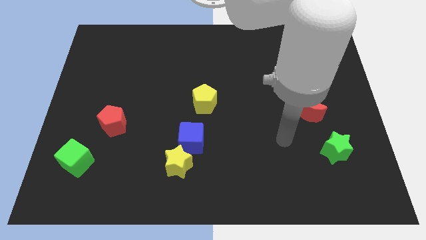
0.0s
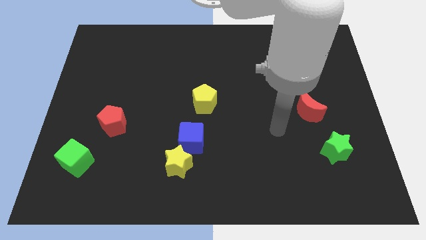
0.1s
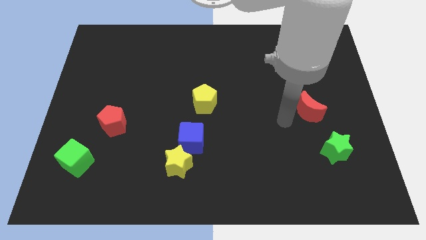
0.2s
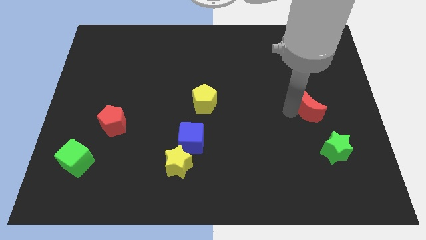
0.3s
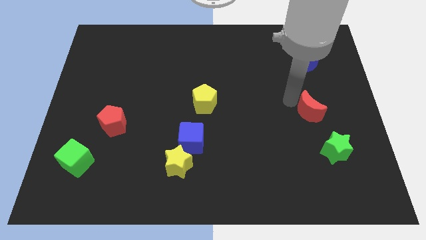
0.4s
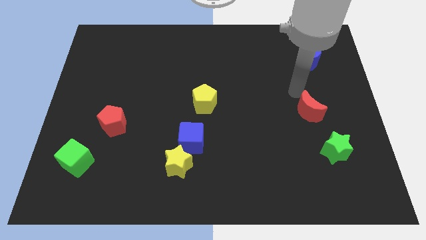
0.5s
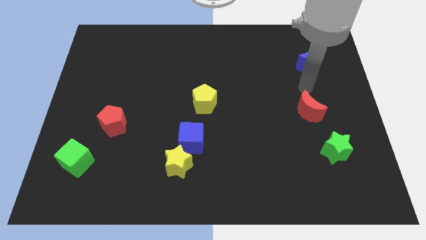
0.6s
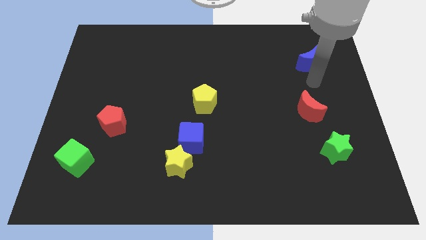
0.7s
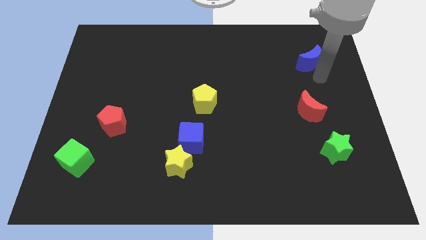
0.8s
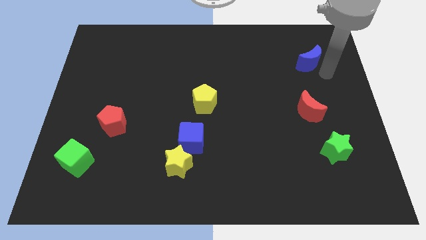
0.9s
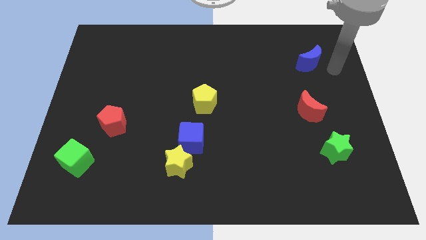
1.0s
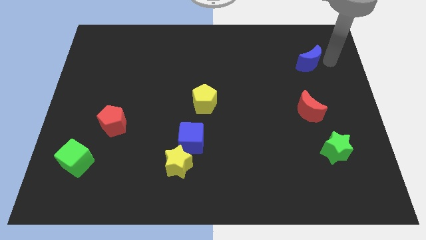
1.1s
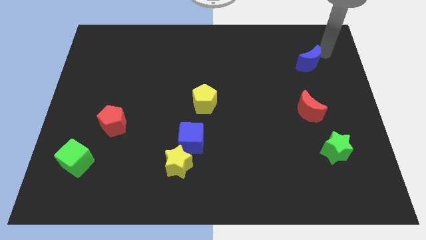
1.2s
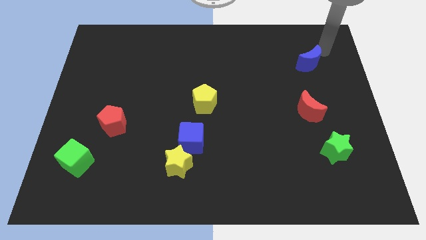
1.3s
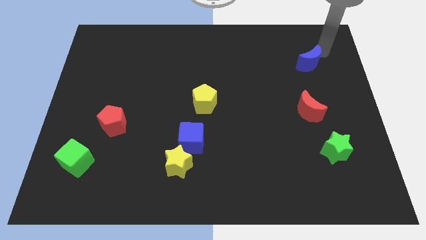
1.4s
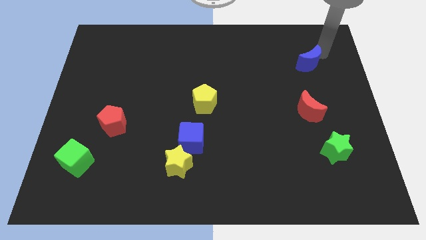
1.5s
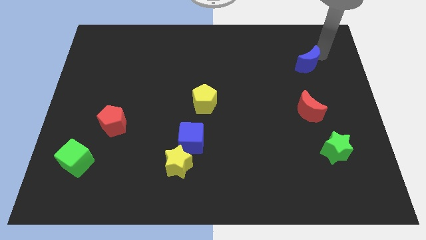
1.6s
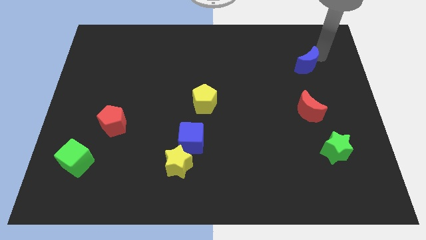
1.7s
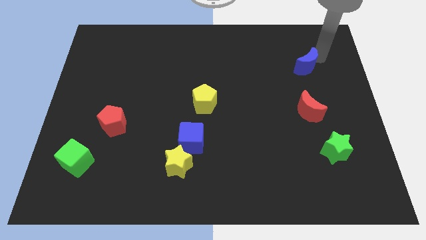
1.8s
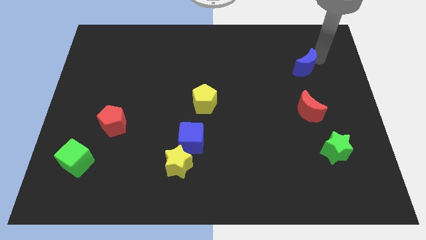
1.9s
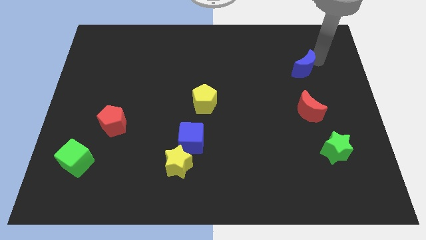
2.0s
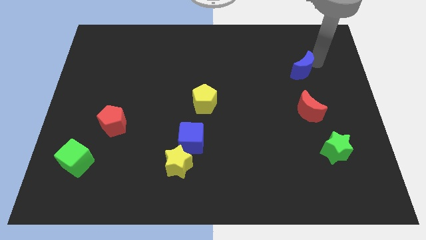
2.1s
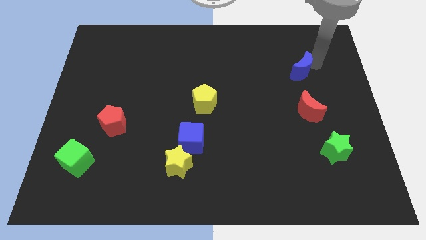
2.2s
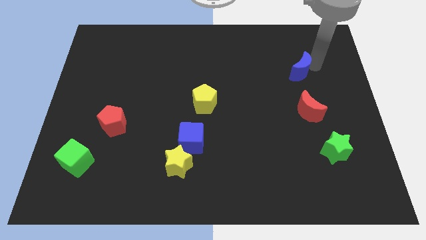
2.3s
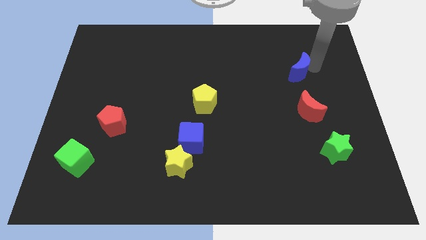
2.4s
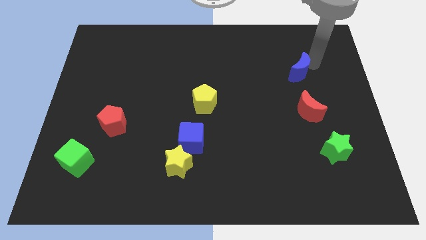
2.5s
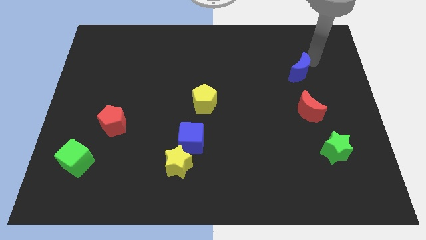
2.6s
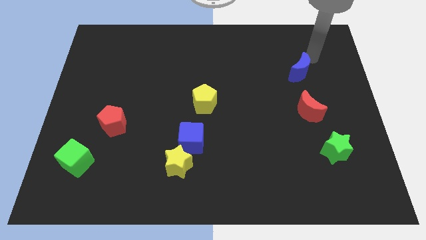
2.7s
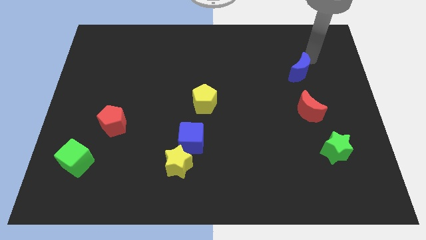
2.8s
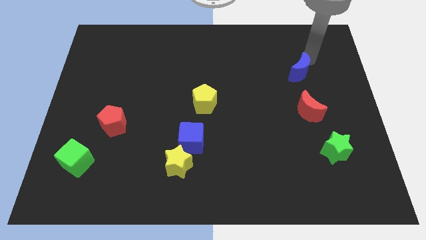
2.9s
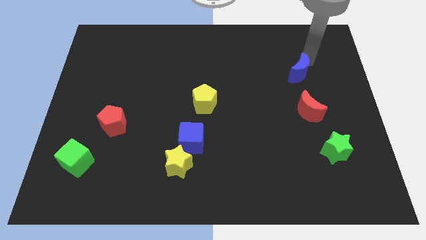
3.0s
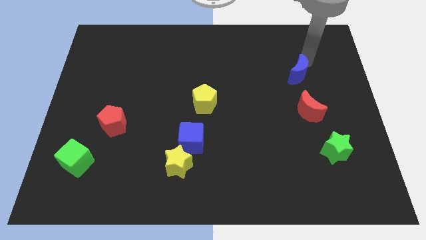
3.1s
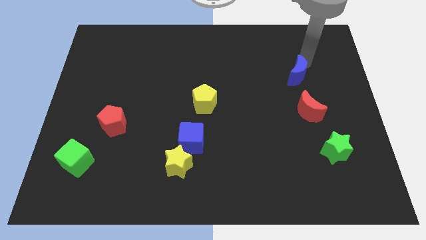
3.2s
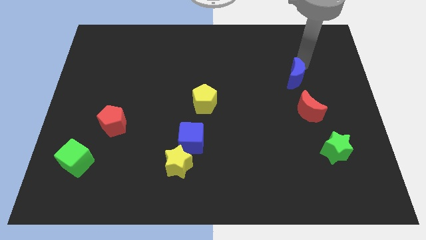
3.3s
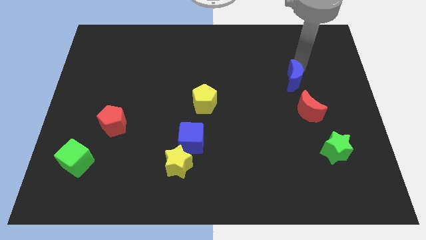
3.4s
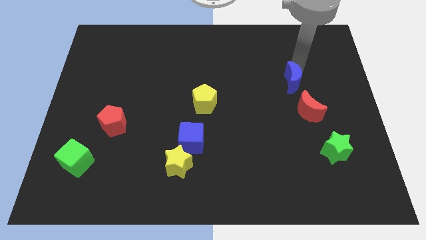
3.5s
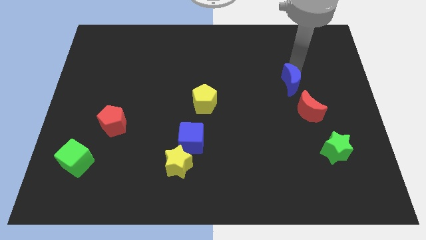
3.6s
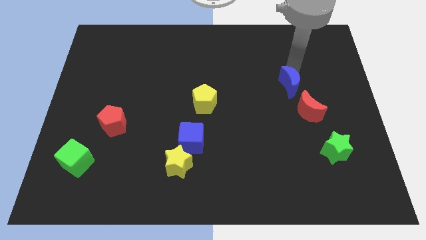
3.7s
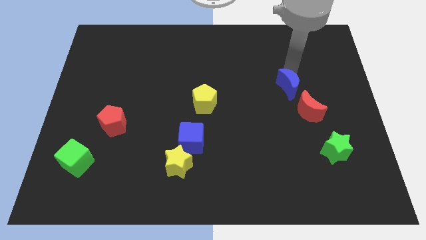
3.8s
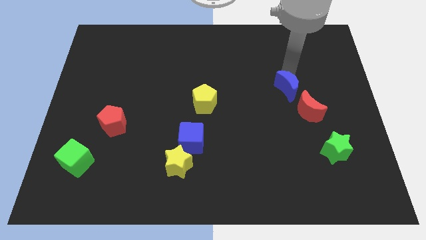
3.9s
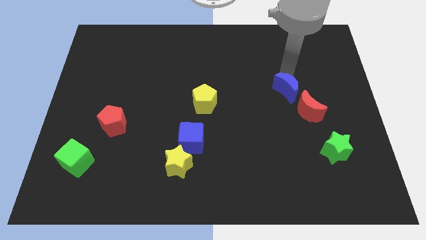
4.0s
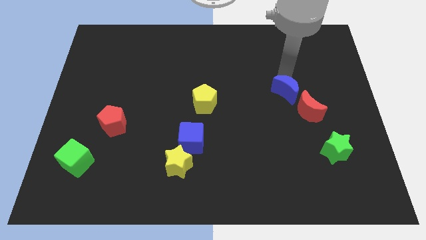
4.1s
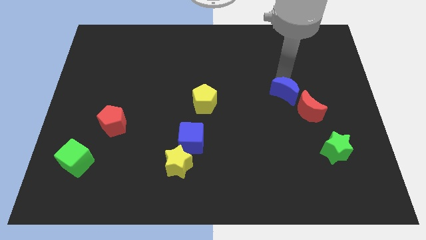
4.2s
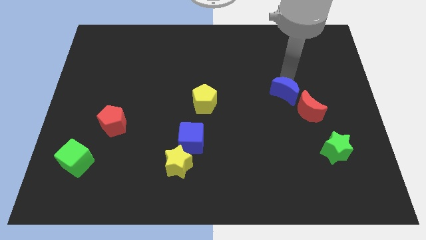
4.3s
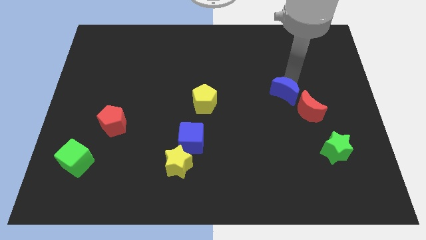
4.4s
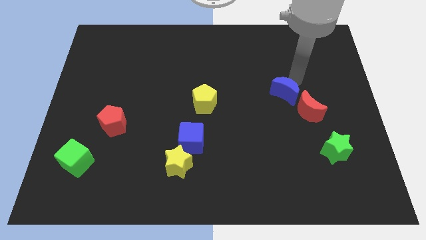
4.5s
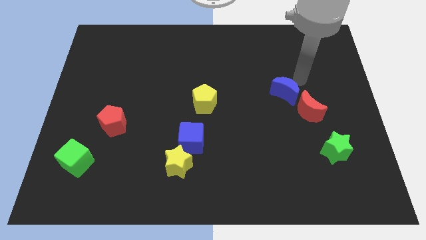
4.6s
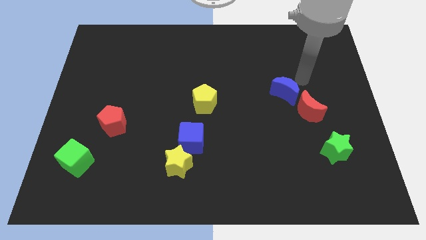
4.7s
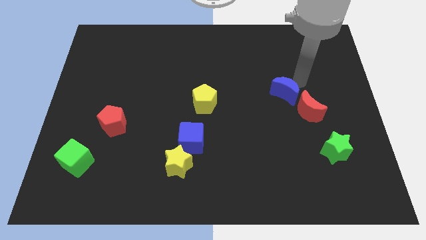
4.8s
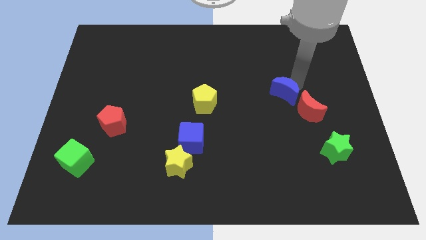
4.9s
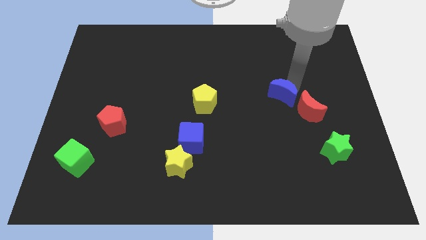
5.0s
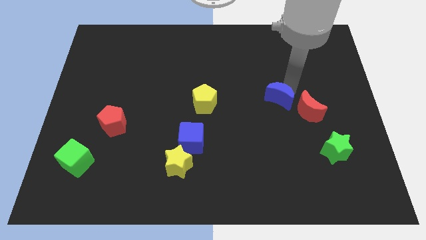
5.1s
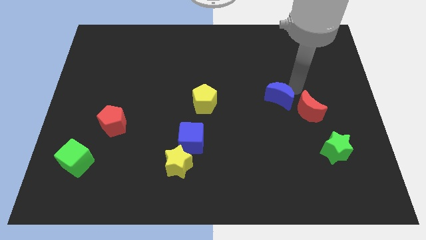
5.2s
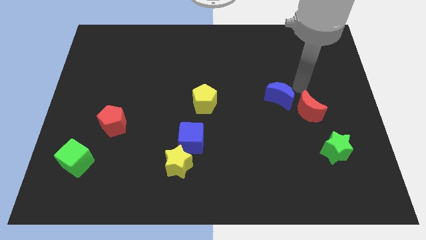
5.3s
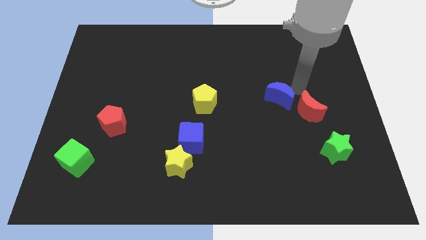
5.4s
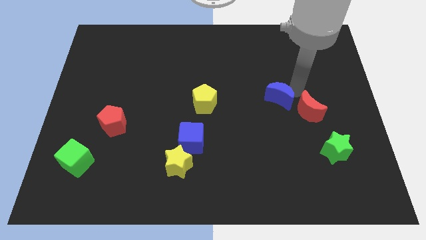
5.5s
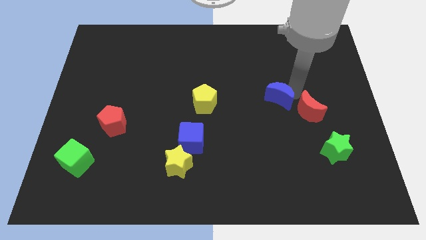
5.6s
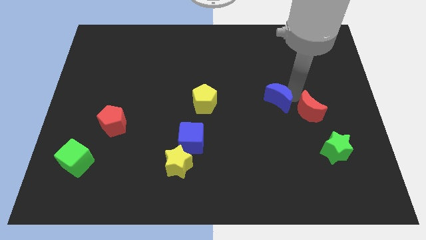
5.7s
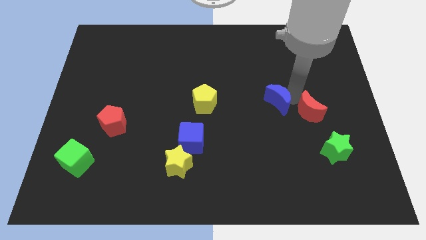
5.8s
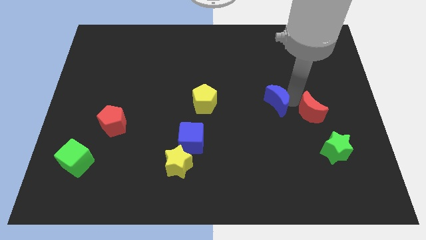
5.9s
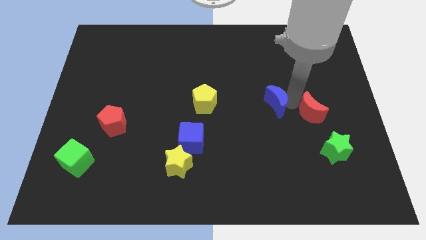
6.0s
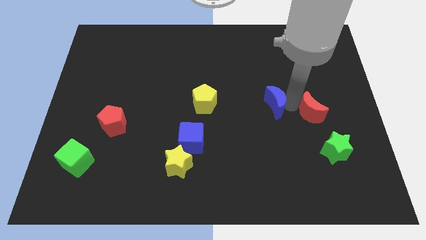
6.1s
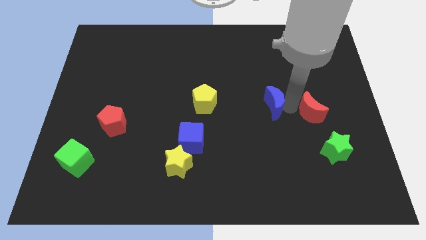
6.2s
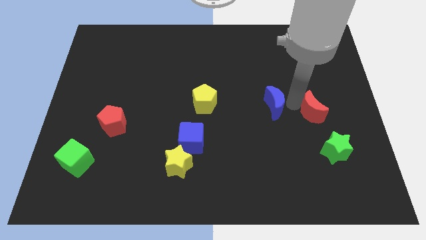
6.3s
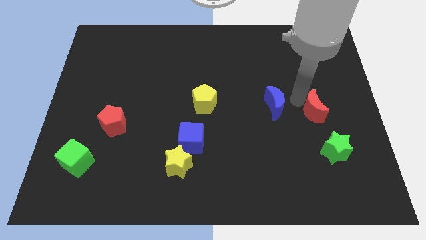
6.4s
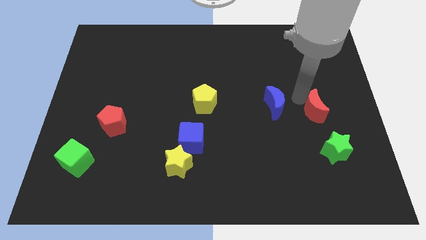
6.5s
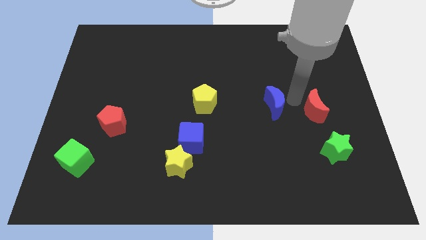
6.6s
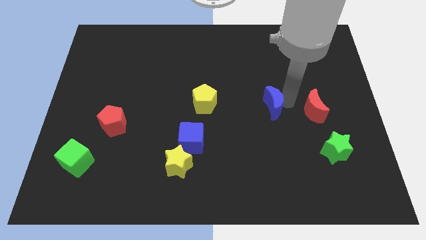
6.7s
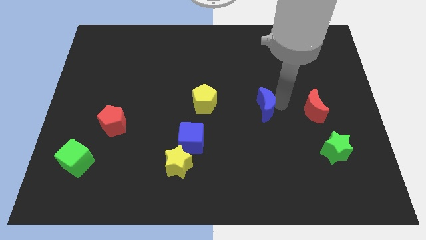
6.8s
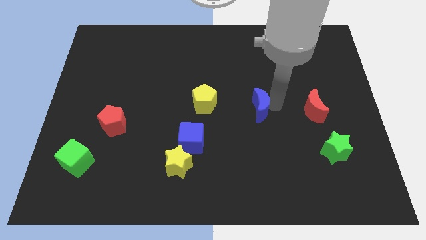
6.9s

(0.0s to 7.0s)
slide the blue moon down and left diagonally

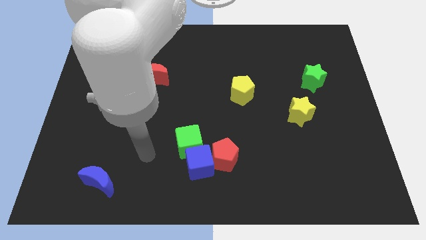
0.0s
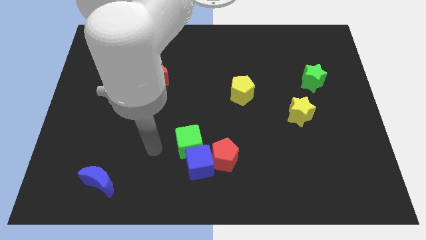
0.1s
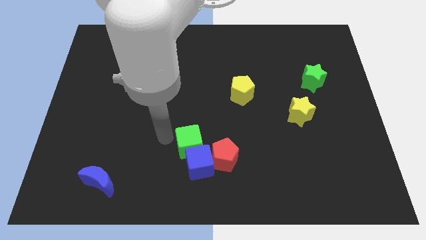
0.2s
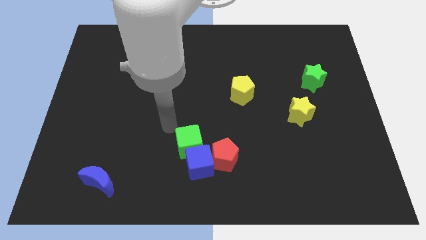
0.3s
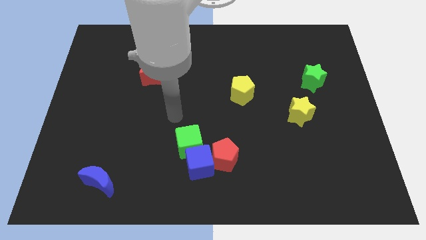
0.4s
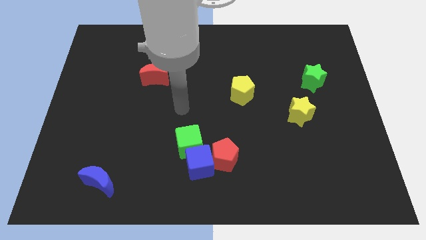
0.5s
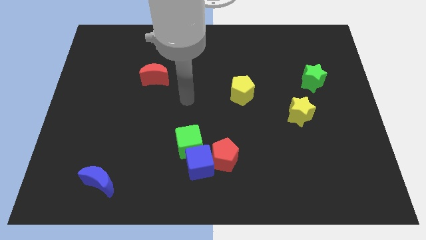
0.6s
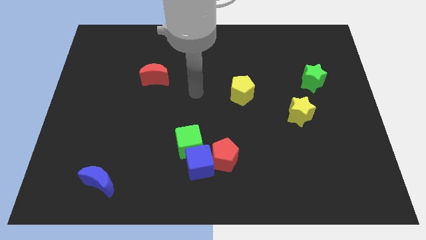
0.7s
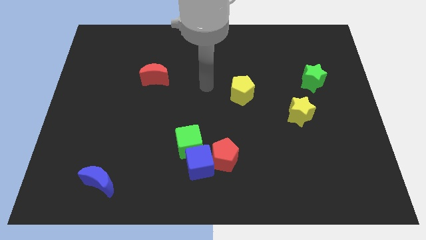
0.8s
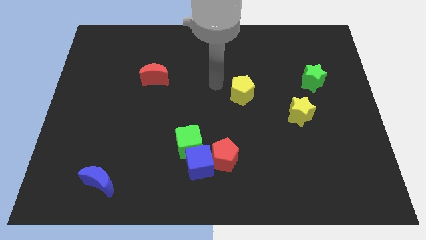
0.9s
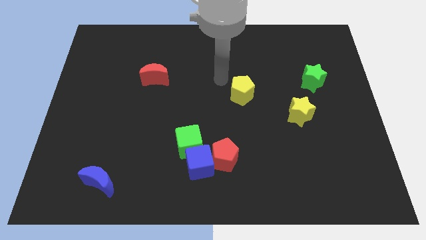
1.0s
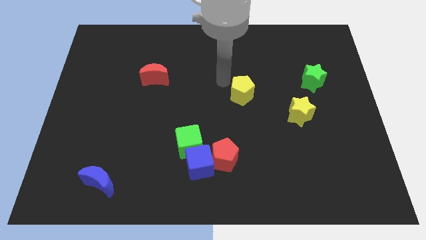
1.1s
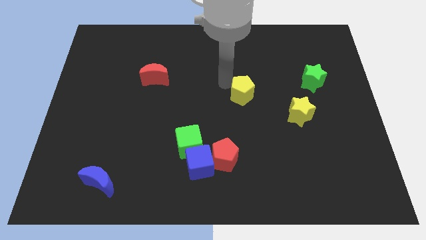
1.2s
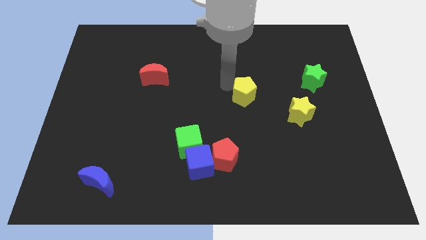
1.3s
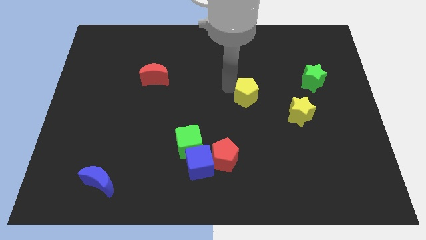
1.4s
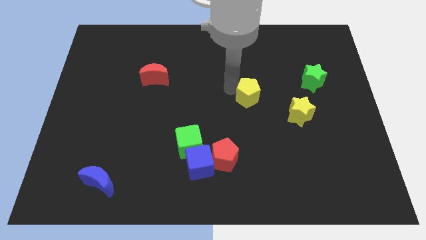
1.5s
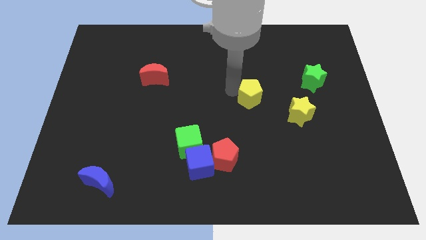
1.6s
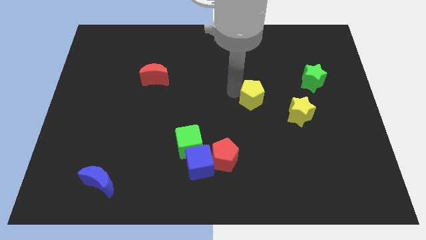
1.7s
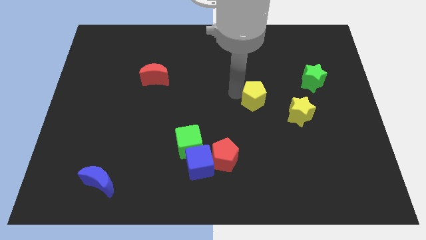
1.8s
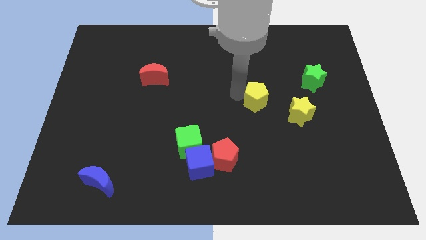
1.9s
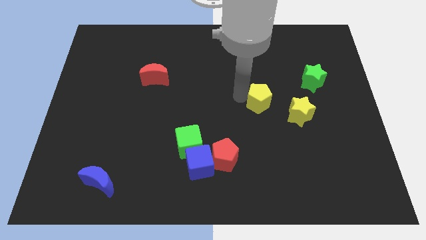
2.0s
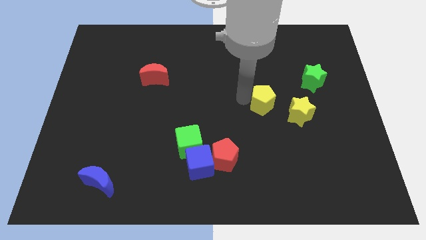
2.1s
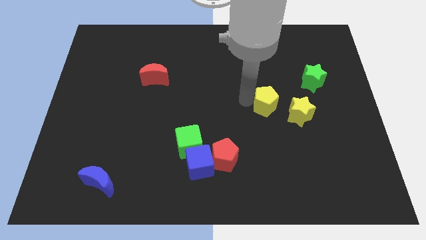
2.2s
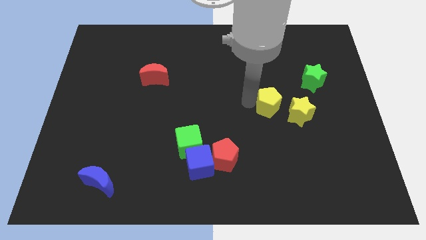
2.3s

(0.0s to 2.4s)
slide the yellow pentagon a bit down and right diagonally
